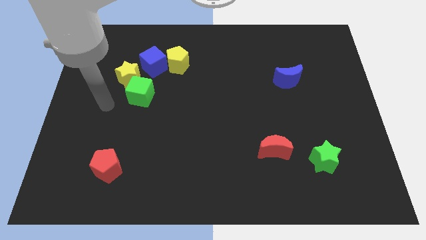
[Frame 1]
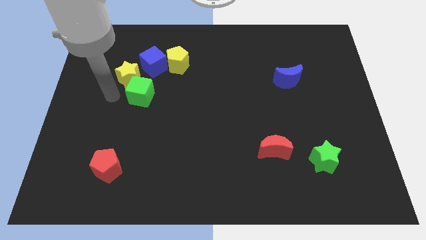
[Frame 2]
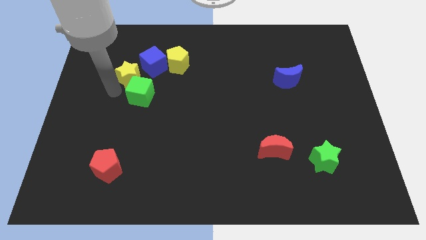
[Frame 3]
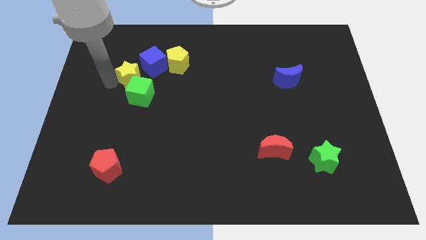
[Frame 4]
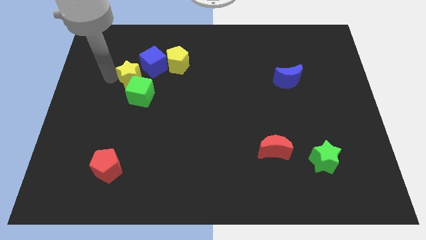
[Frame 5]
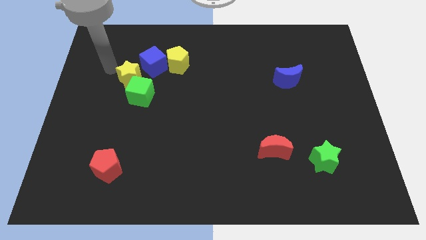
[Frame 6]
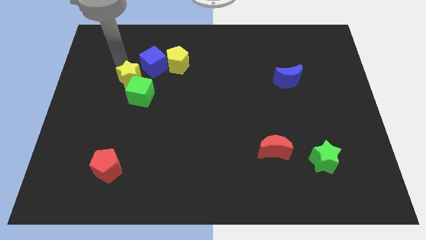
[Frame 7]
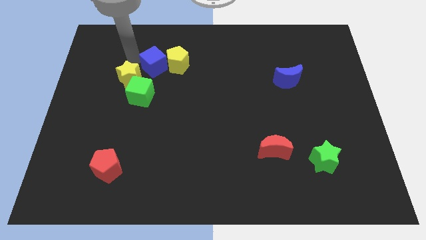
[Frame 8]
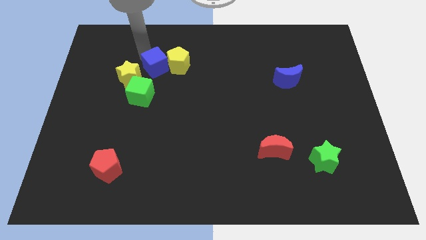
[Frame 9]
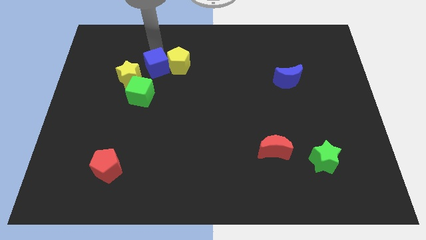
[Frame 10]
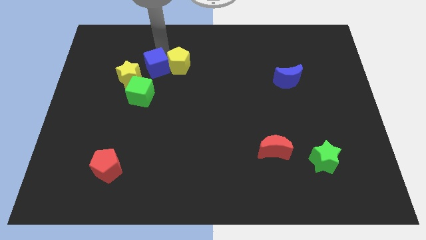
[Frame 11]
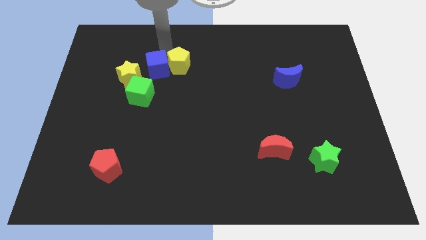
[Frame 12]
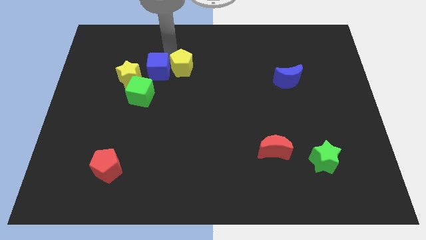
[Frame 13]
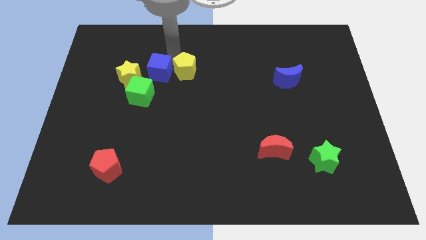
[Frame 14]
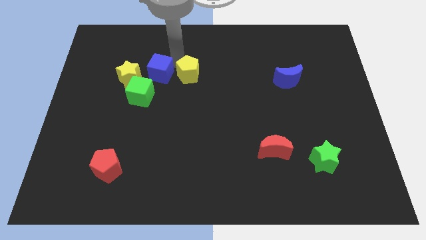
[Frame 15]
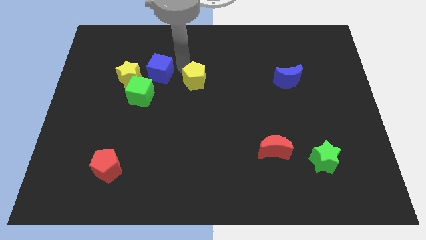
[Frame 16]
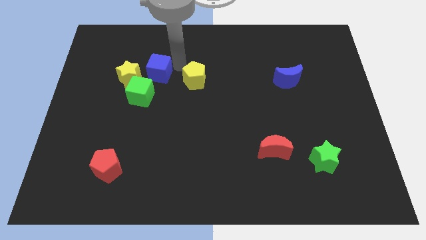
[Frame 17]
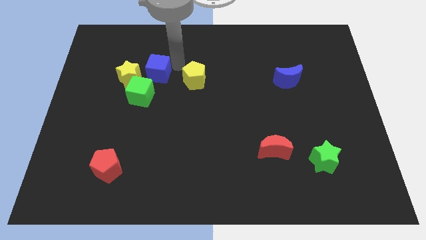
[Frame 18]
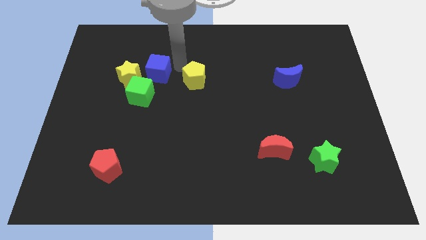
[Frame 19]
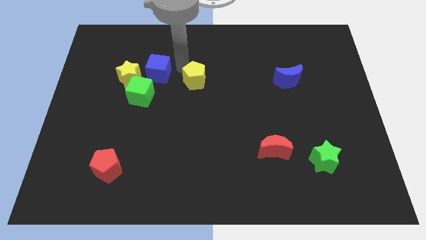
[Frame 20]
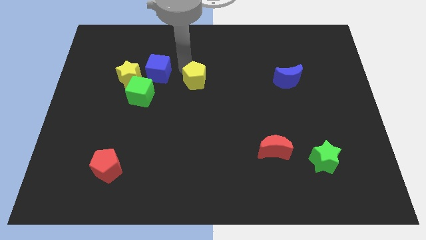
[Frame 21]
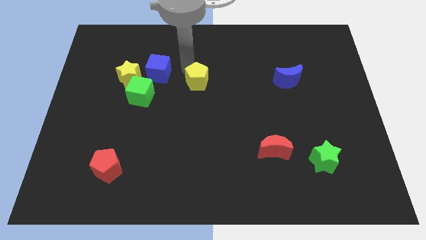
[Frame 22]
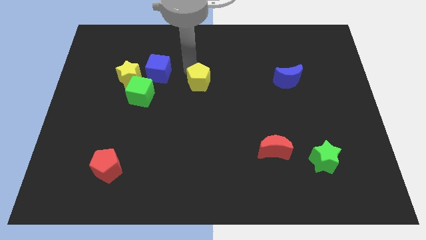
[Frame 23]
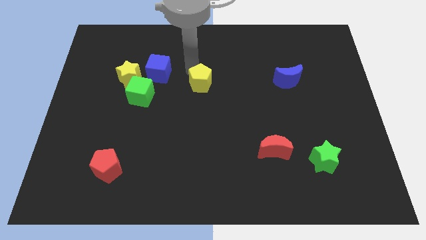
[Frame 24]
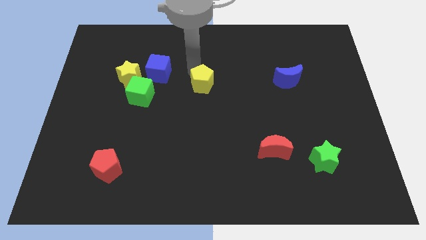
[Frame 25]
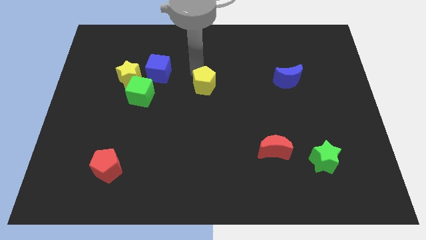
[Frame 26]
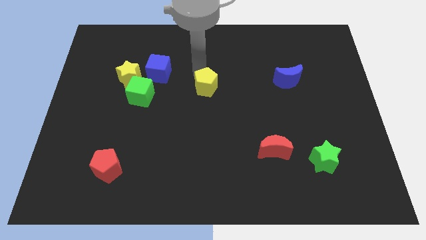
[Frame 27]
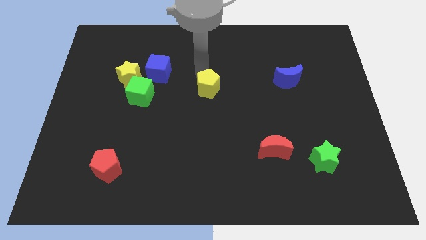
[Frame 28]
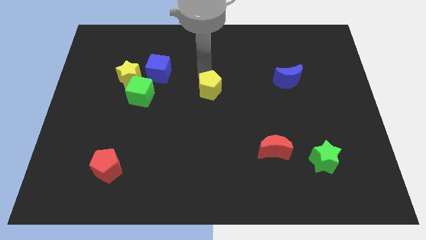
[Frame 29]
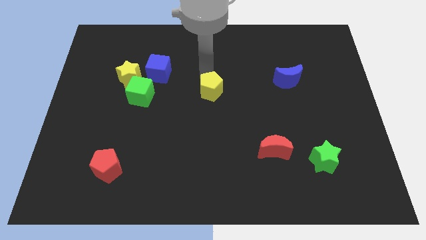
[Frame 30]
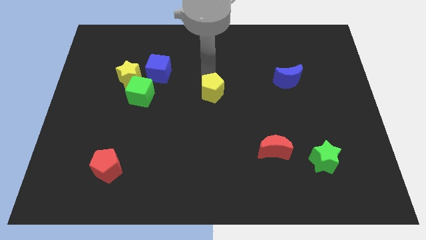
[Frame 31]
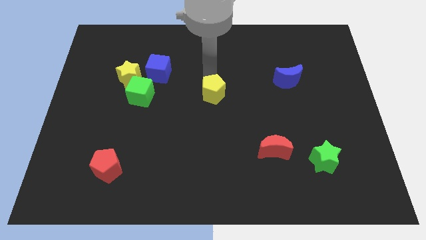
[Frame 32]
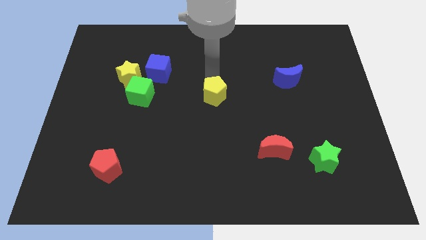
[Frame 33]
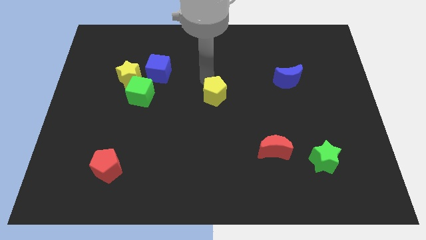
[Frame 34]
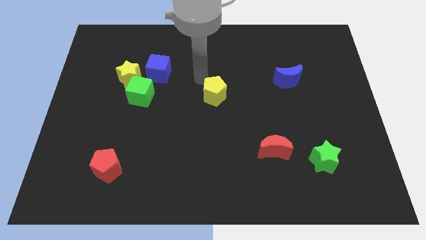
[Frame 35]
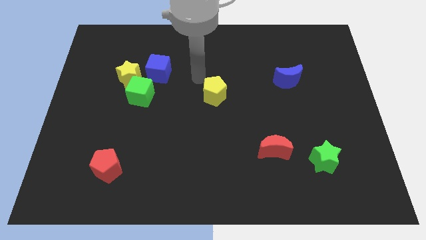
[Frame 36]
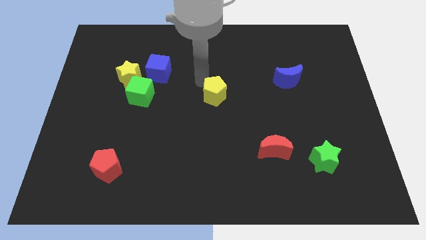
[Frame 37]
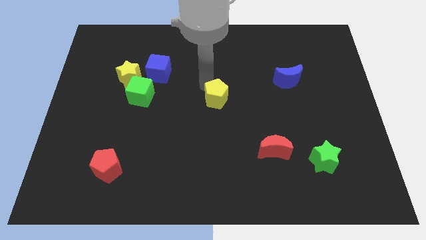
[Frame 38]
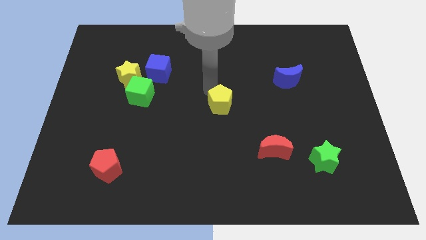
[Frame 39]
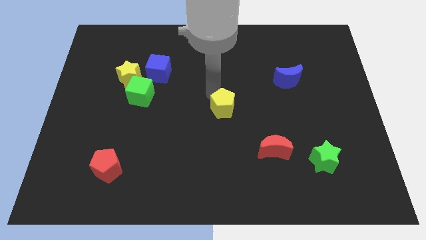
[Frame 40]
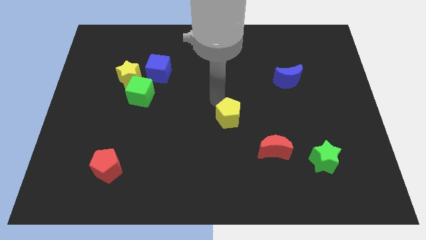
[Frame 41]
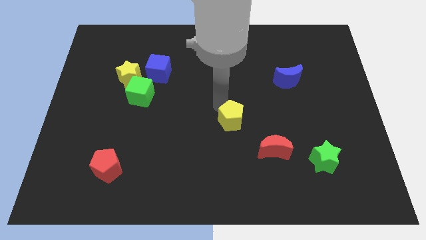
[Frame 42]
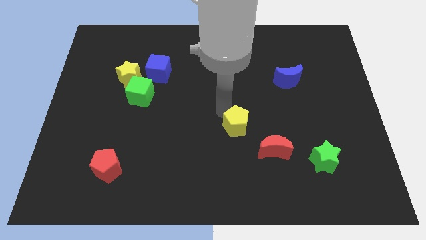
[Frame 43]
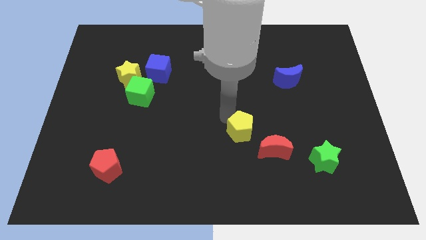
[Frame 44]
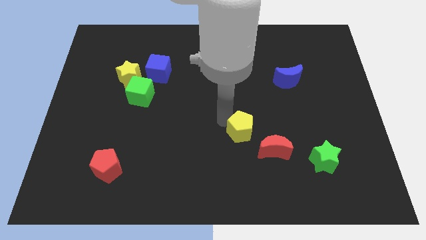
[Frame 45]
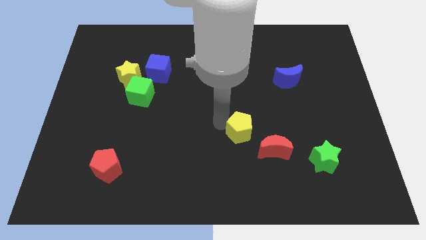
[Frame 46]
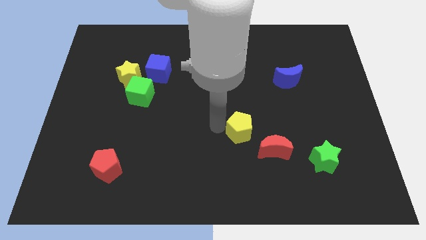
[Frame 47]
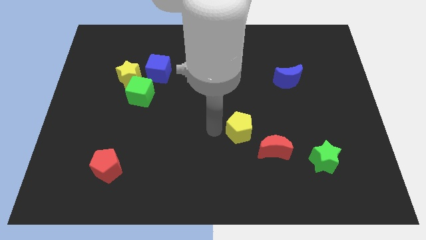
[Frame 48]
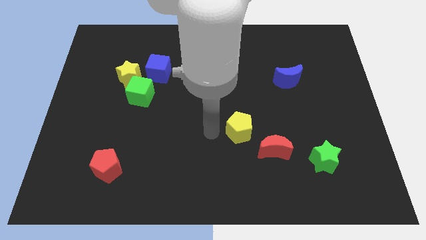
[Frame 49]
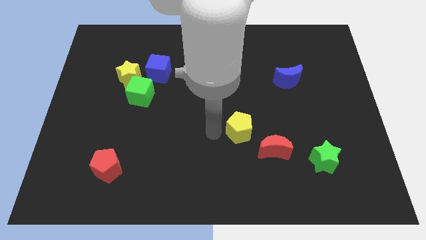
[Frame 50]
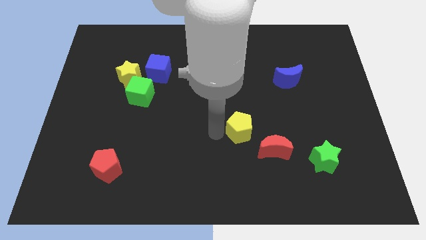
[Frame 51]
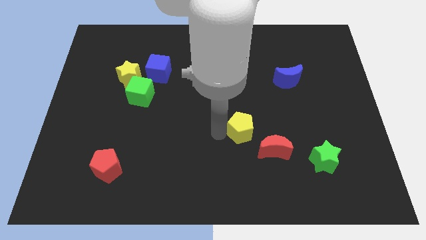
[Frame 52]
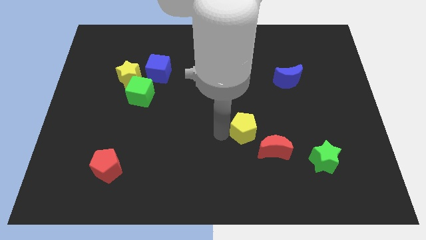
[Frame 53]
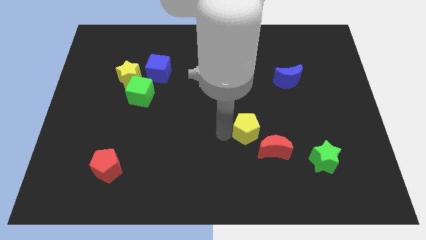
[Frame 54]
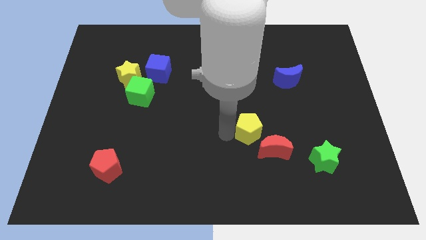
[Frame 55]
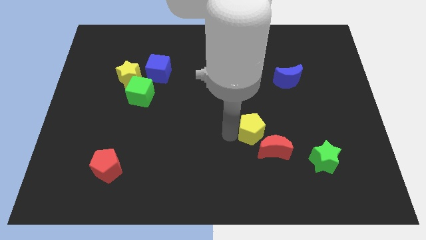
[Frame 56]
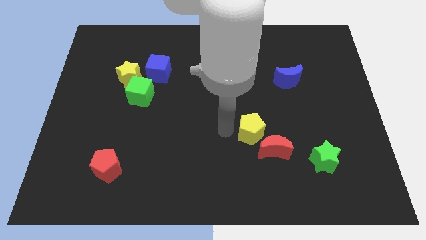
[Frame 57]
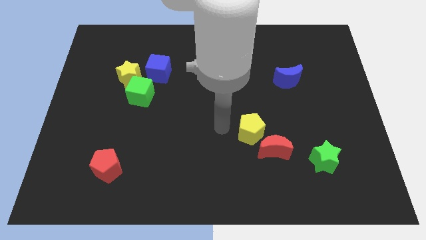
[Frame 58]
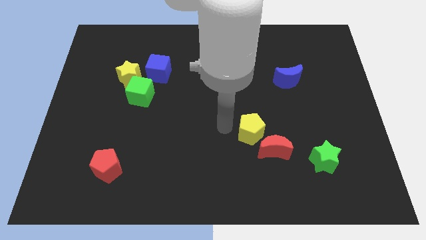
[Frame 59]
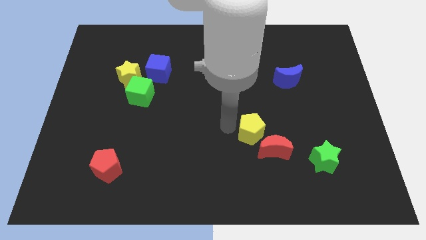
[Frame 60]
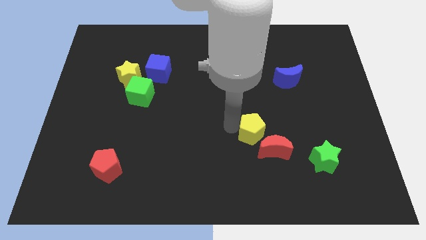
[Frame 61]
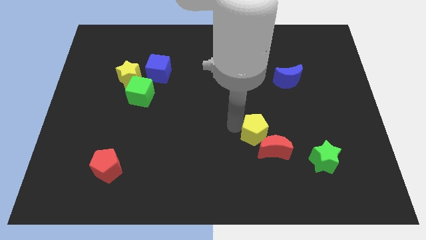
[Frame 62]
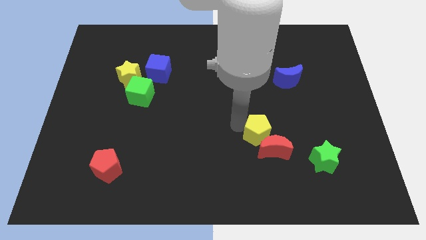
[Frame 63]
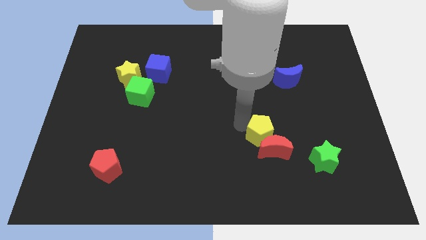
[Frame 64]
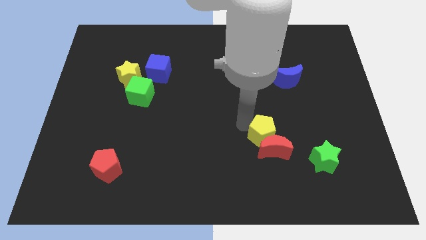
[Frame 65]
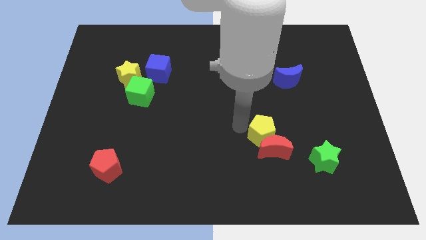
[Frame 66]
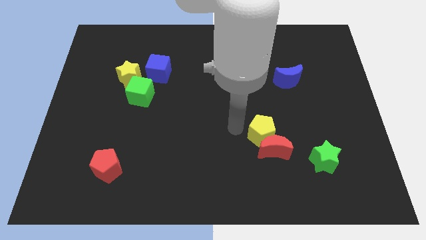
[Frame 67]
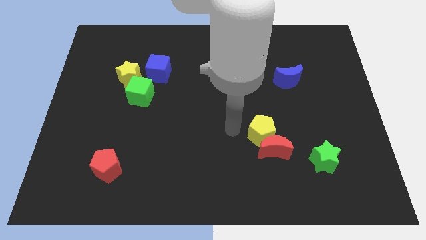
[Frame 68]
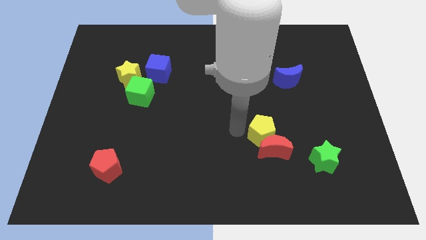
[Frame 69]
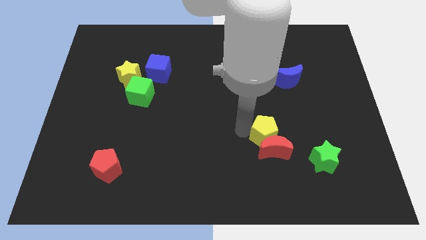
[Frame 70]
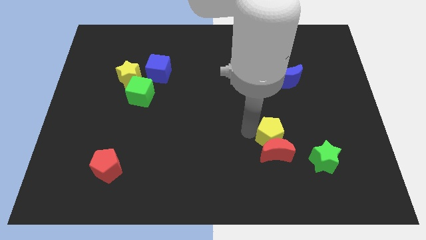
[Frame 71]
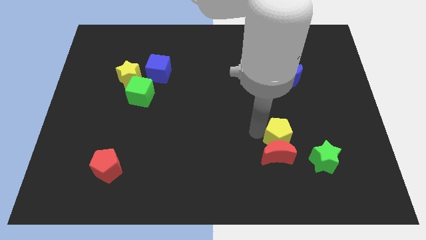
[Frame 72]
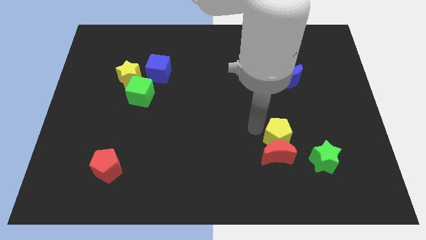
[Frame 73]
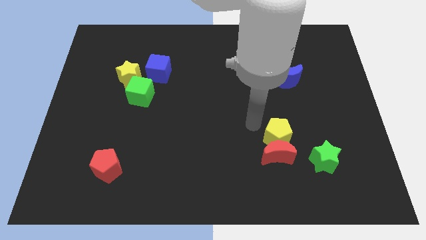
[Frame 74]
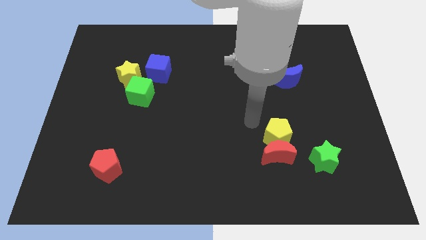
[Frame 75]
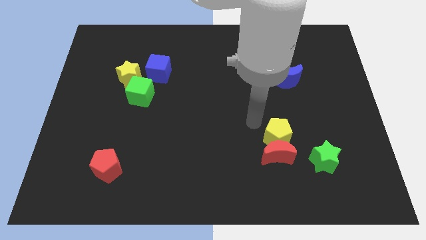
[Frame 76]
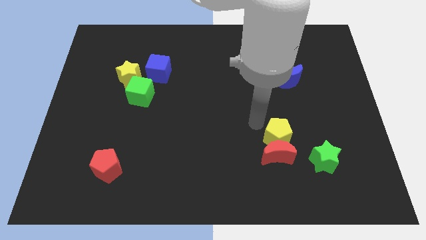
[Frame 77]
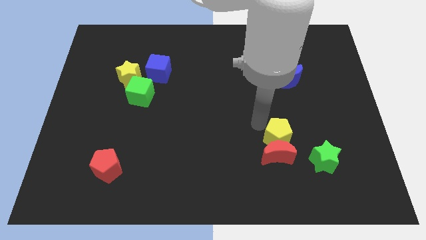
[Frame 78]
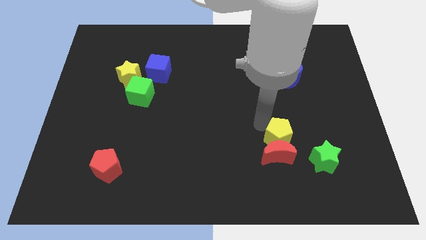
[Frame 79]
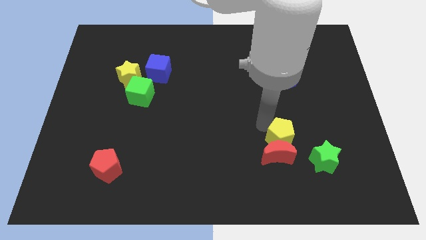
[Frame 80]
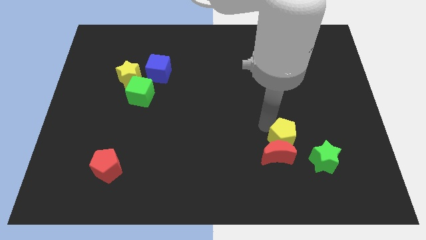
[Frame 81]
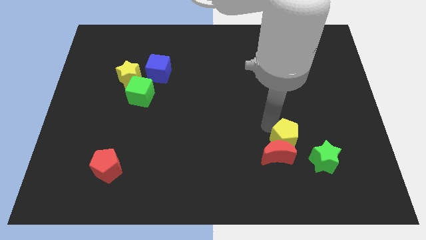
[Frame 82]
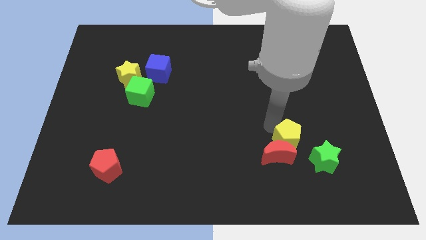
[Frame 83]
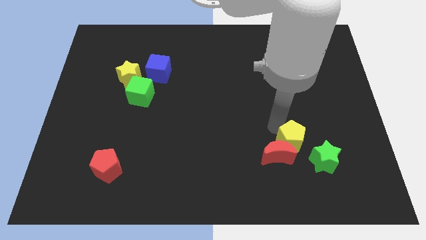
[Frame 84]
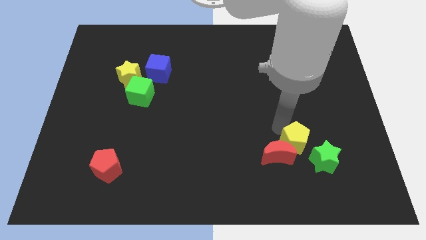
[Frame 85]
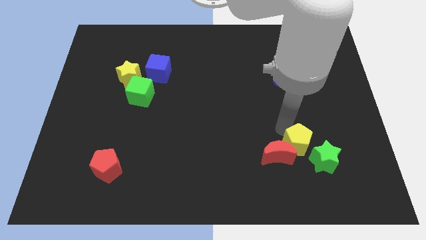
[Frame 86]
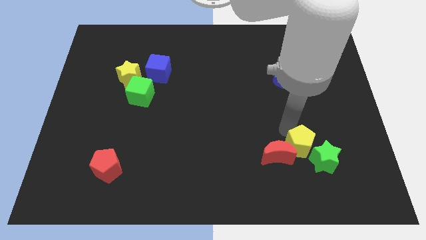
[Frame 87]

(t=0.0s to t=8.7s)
move the yellow pentagon close to the green star
